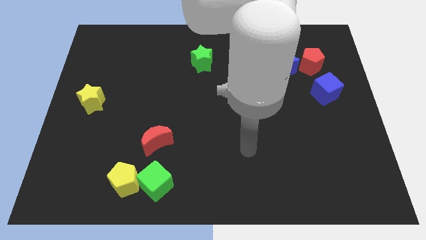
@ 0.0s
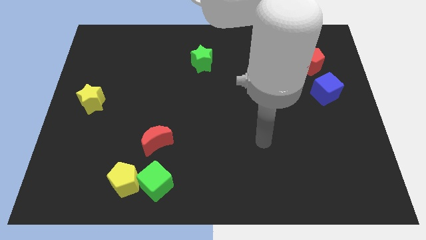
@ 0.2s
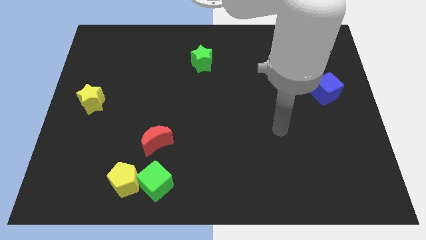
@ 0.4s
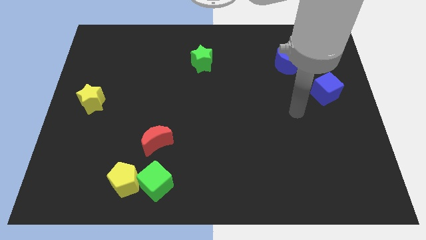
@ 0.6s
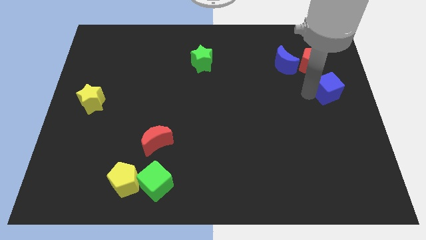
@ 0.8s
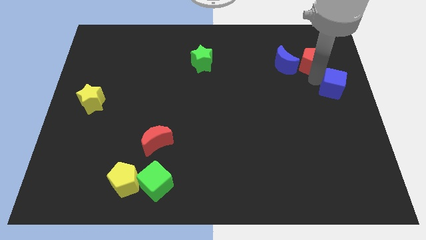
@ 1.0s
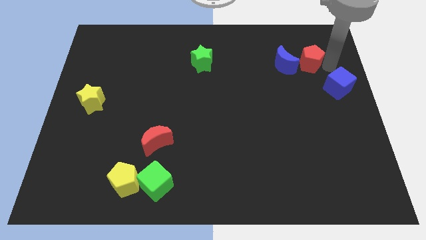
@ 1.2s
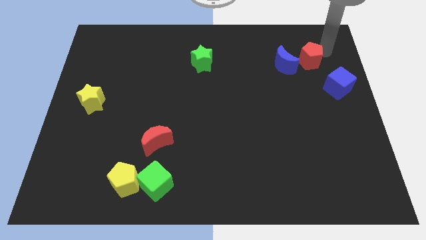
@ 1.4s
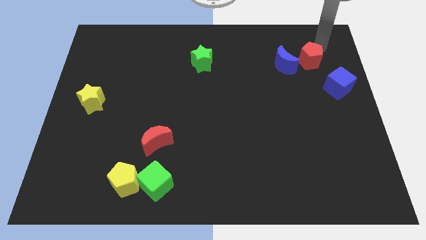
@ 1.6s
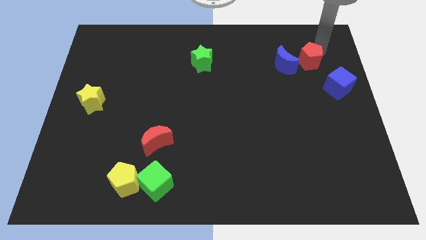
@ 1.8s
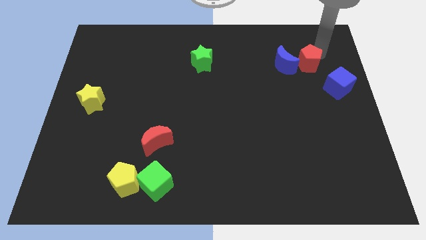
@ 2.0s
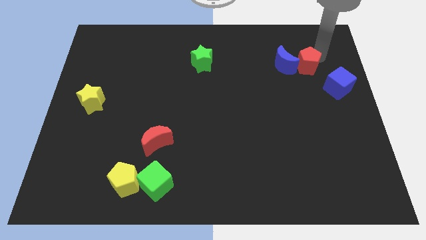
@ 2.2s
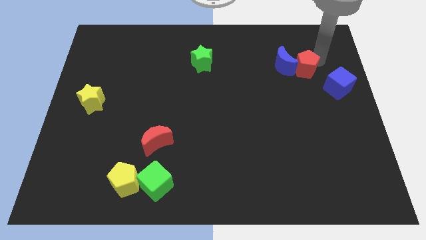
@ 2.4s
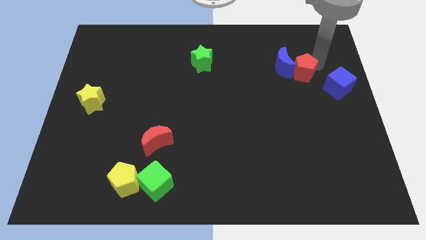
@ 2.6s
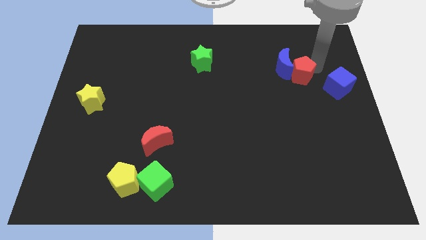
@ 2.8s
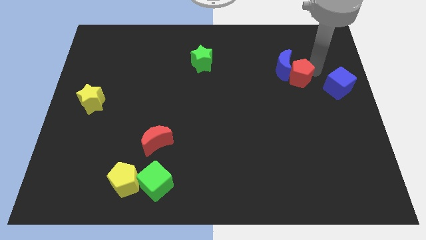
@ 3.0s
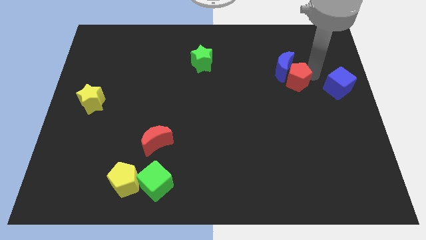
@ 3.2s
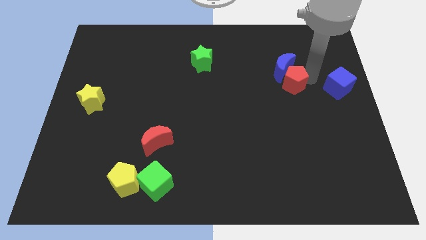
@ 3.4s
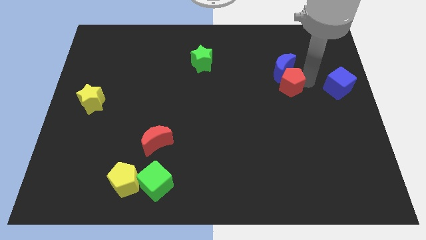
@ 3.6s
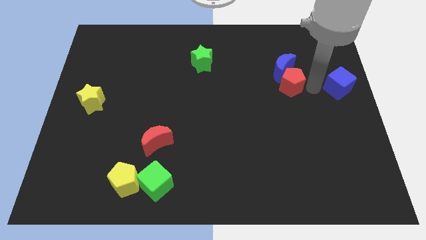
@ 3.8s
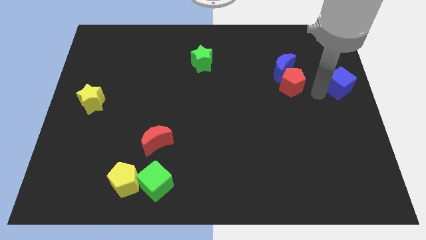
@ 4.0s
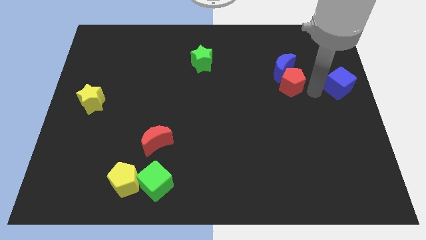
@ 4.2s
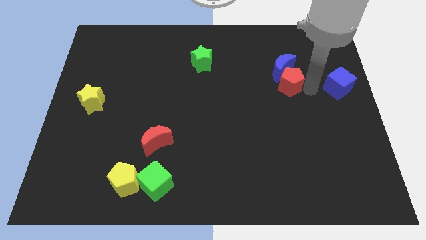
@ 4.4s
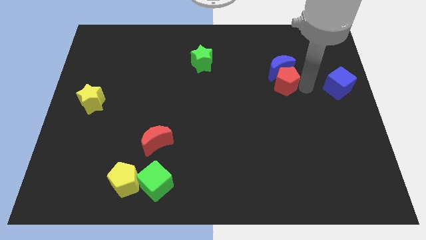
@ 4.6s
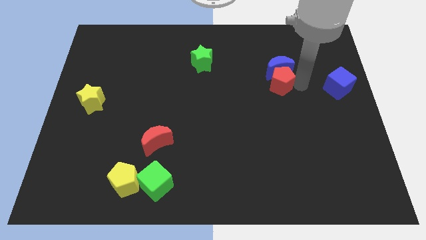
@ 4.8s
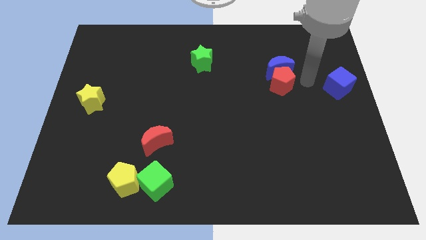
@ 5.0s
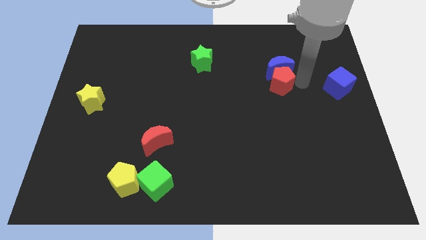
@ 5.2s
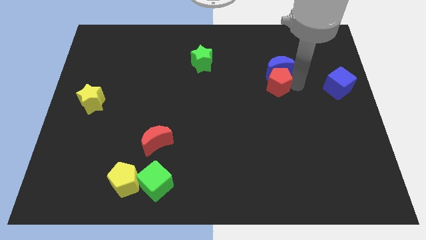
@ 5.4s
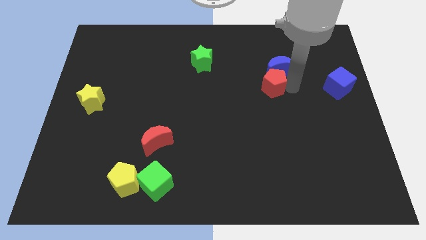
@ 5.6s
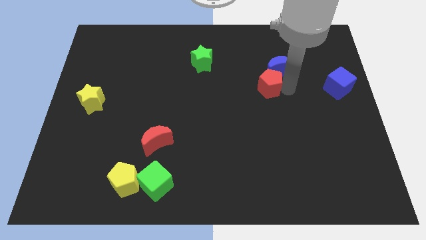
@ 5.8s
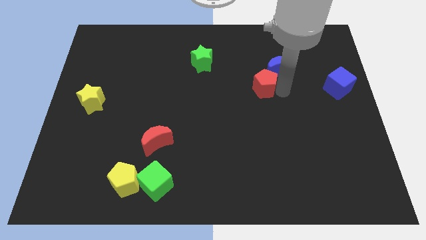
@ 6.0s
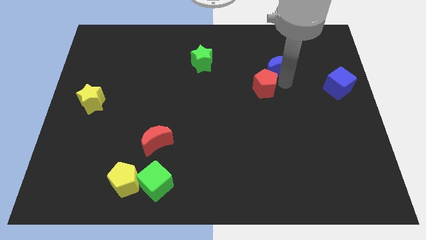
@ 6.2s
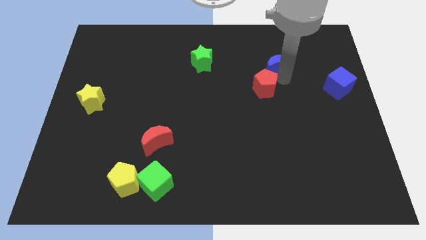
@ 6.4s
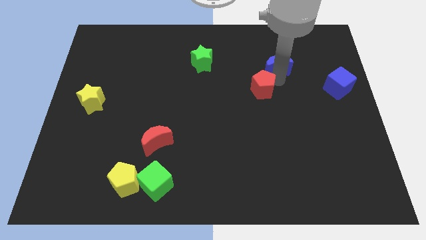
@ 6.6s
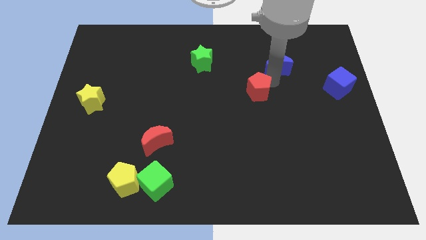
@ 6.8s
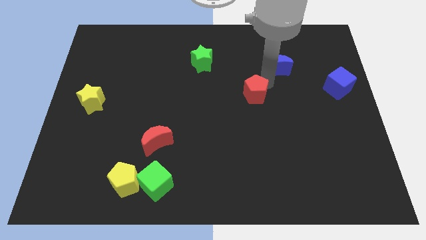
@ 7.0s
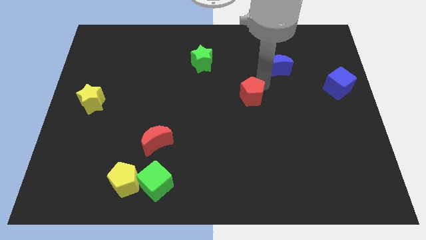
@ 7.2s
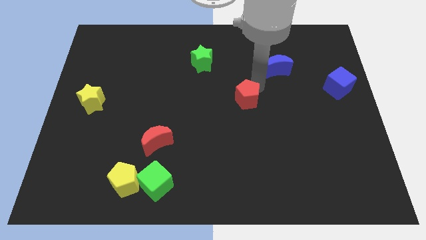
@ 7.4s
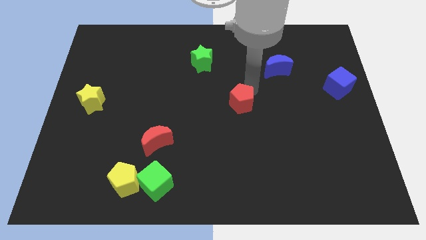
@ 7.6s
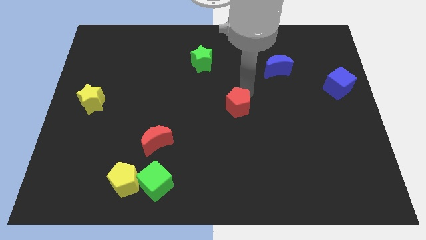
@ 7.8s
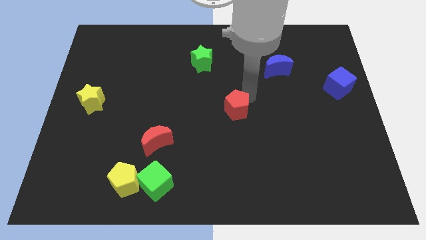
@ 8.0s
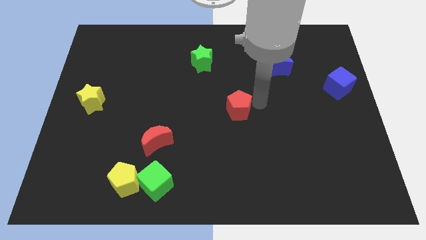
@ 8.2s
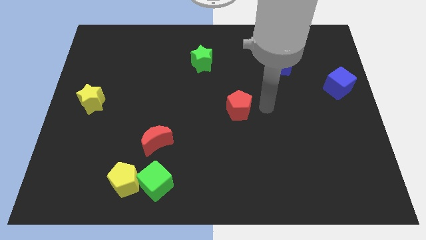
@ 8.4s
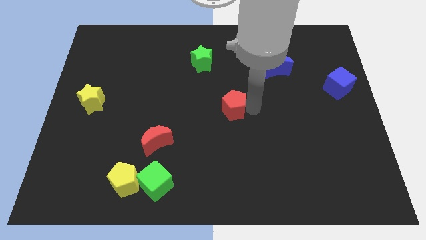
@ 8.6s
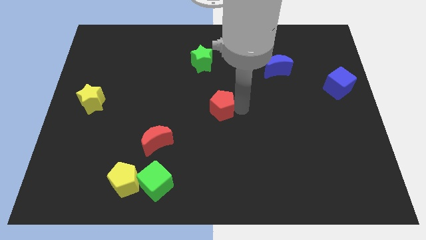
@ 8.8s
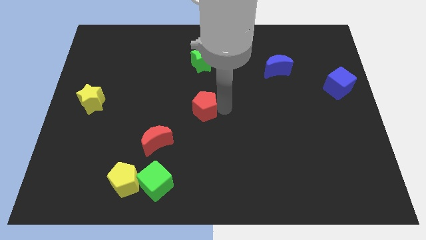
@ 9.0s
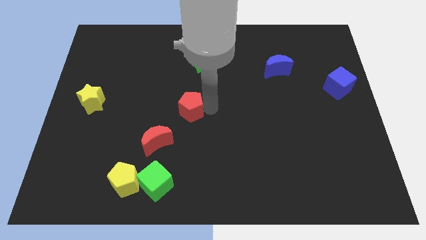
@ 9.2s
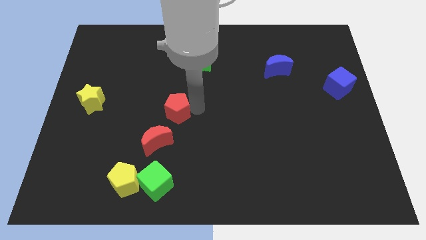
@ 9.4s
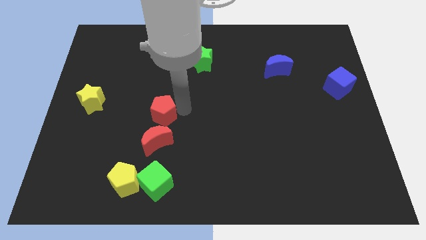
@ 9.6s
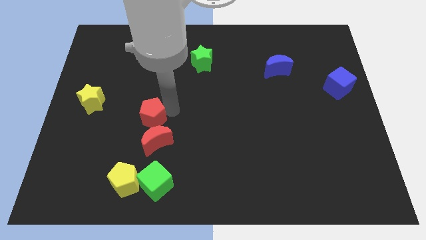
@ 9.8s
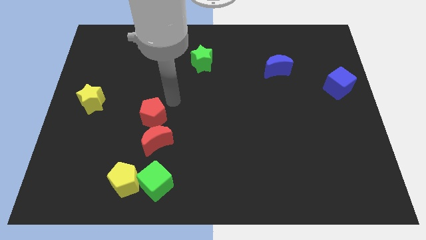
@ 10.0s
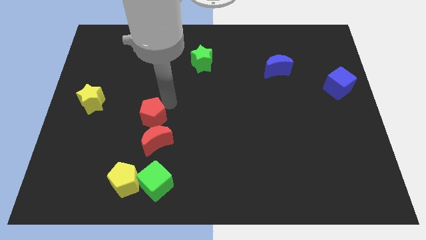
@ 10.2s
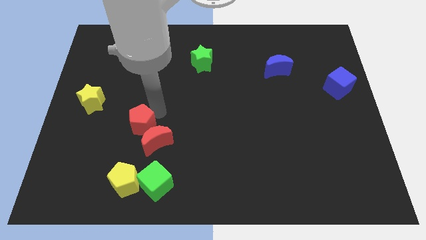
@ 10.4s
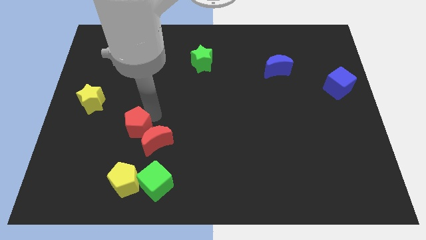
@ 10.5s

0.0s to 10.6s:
slide the red pentagon just left of the red moon

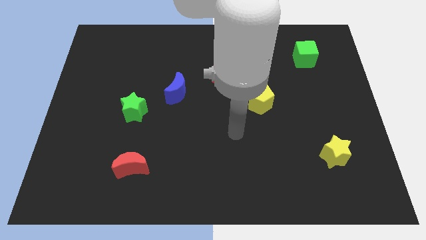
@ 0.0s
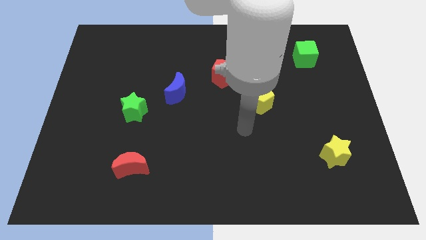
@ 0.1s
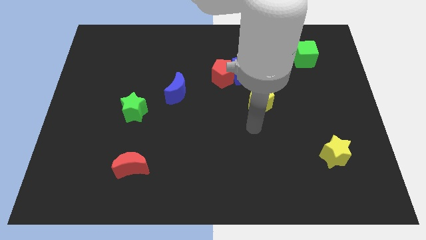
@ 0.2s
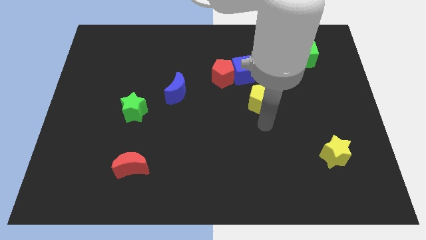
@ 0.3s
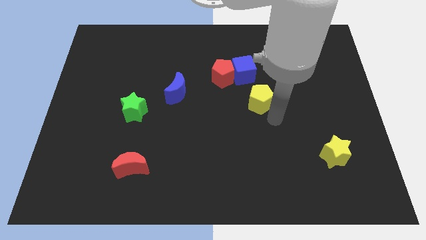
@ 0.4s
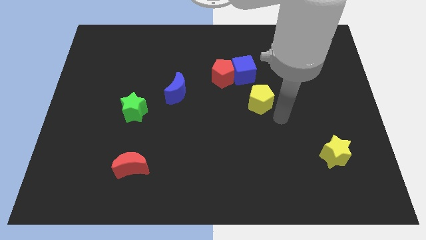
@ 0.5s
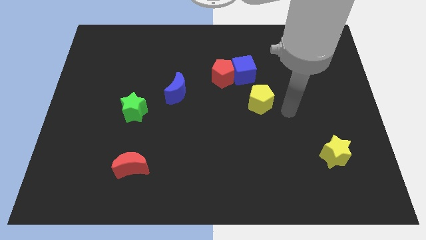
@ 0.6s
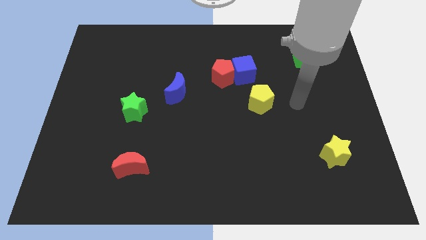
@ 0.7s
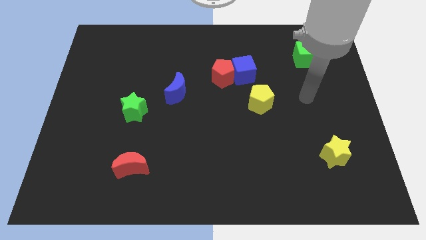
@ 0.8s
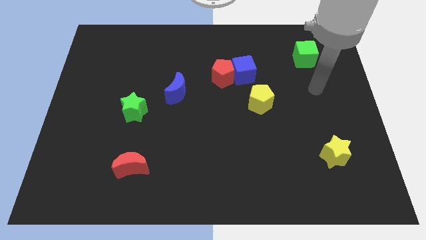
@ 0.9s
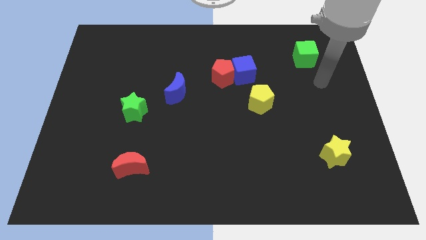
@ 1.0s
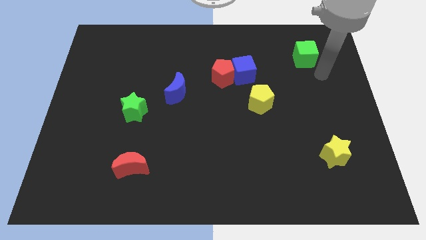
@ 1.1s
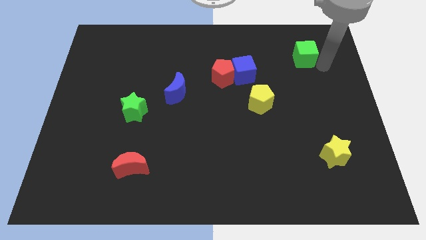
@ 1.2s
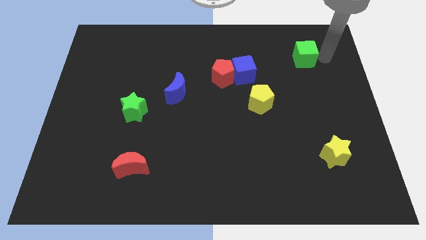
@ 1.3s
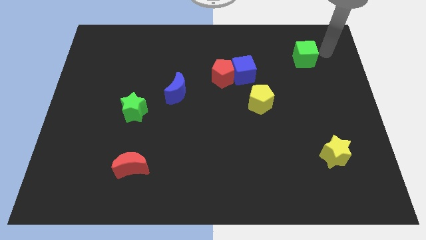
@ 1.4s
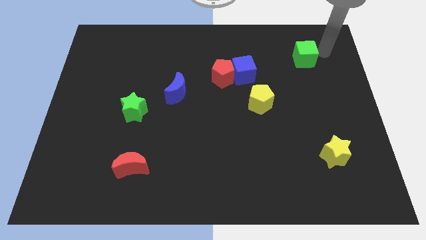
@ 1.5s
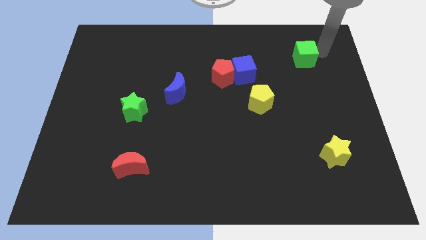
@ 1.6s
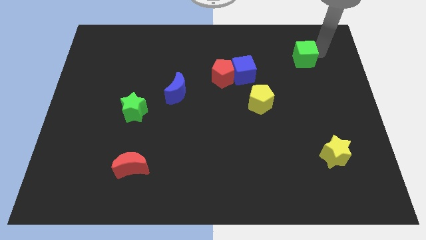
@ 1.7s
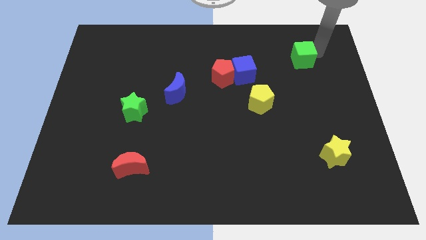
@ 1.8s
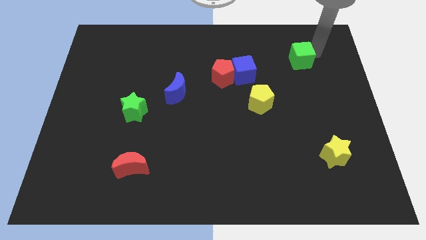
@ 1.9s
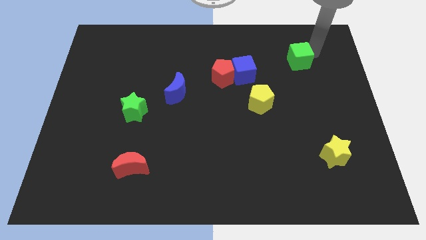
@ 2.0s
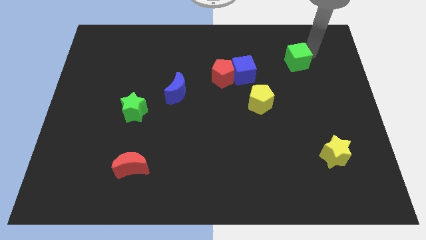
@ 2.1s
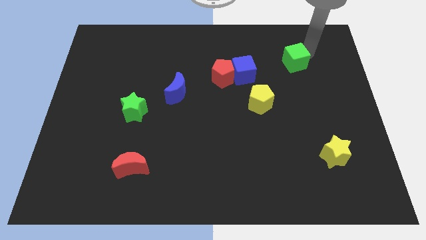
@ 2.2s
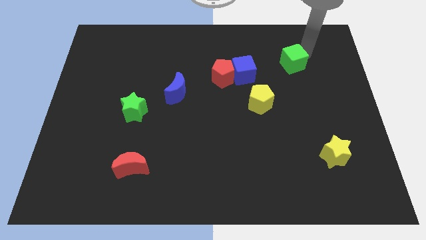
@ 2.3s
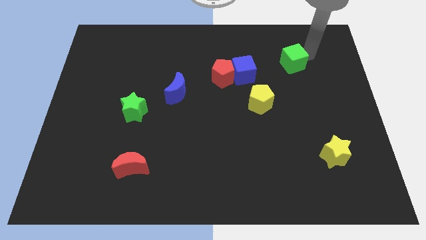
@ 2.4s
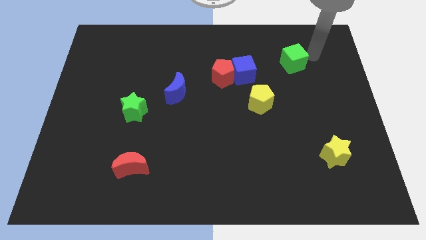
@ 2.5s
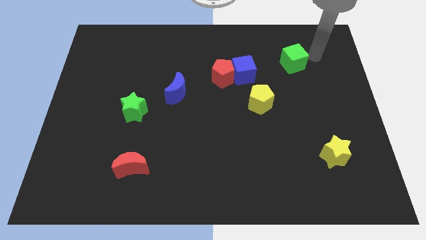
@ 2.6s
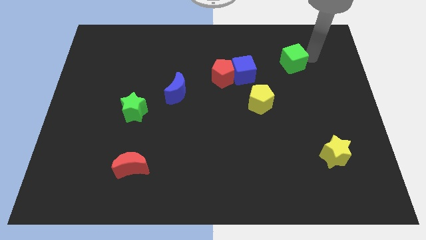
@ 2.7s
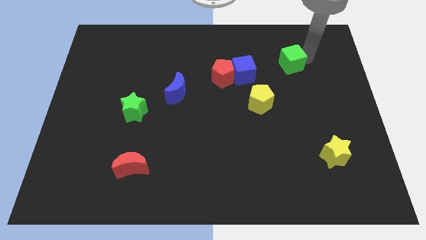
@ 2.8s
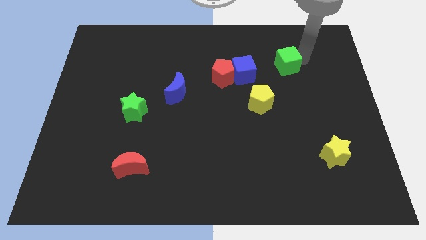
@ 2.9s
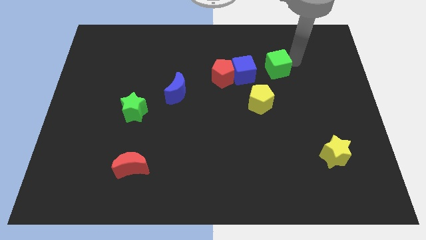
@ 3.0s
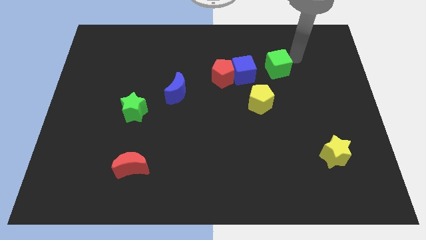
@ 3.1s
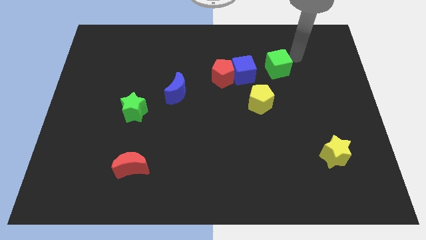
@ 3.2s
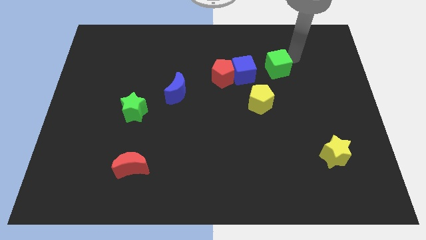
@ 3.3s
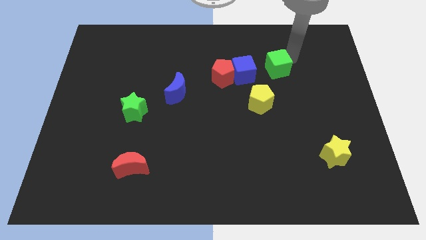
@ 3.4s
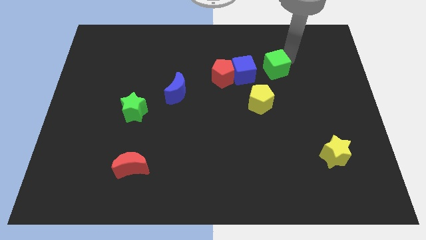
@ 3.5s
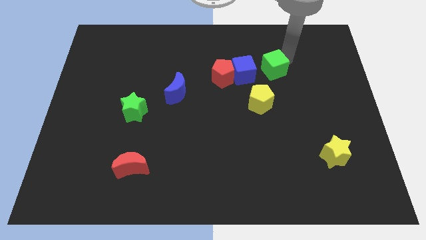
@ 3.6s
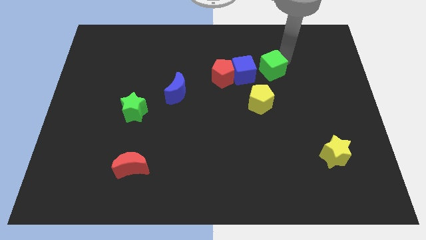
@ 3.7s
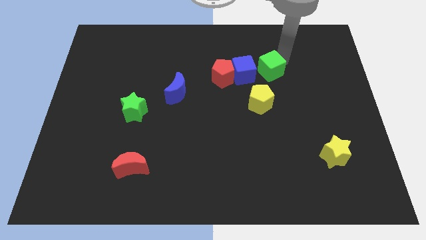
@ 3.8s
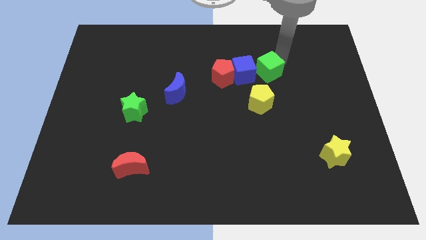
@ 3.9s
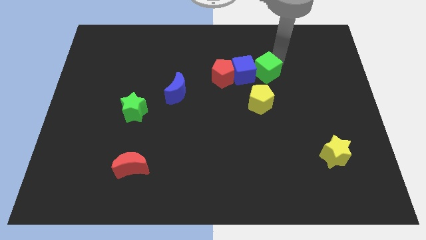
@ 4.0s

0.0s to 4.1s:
move the green cube diagonally down and to the right of the blue cube
